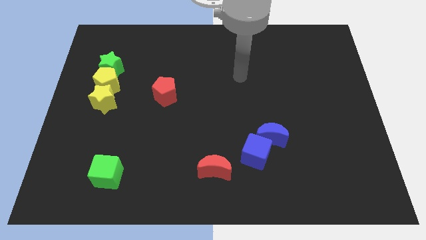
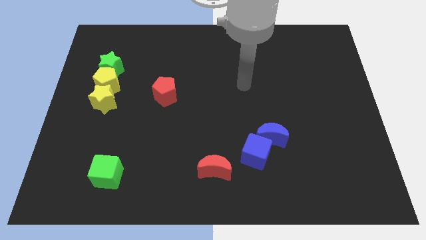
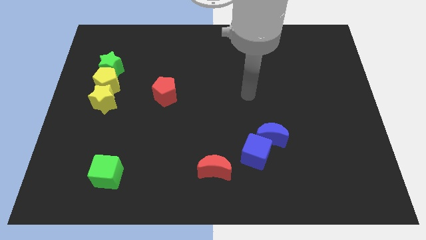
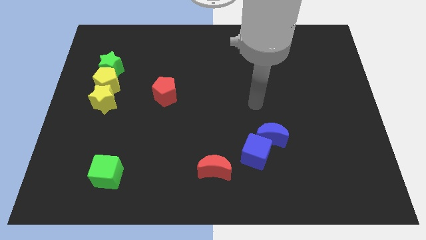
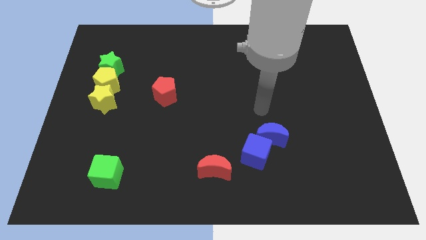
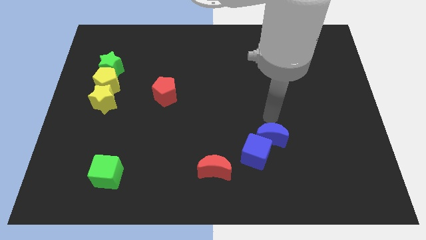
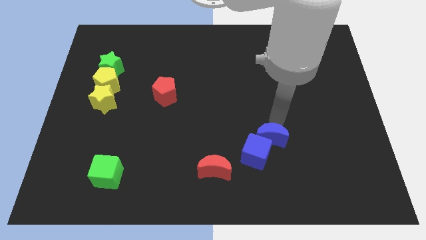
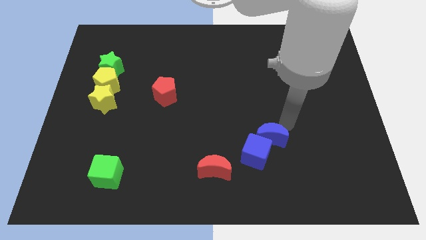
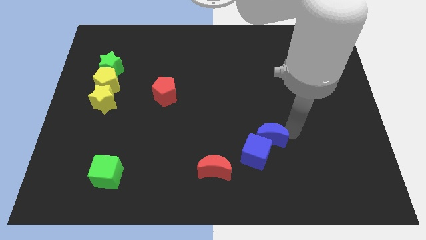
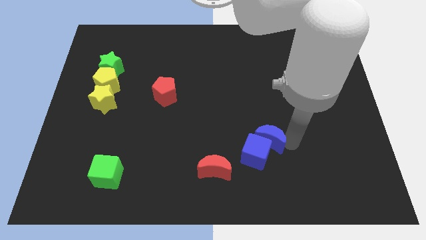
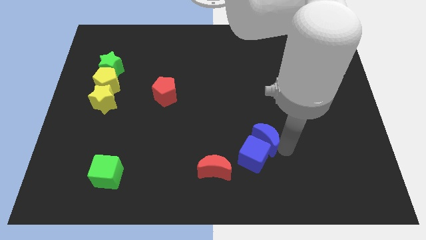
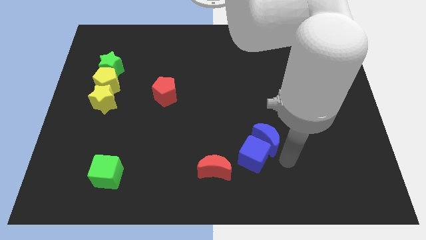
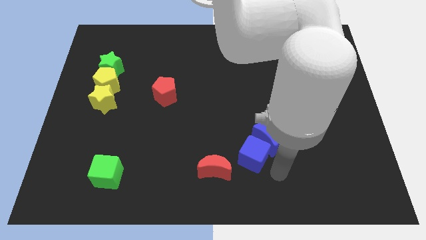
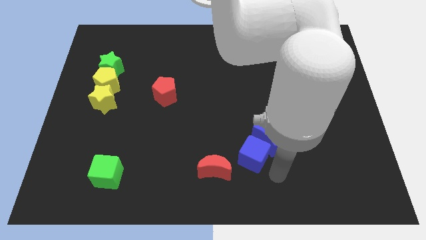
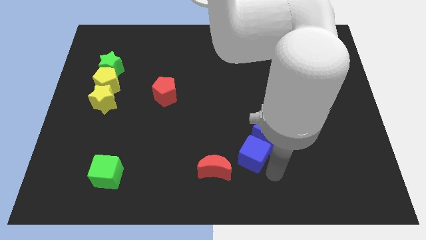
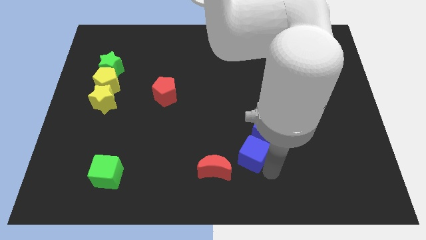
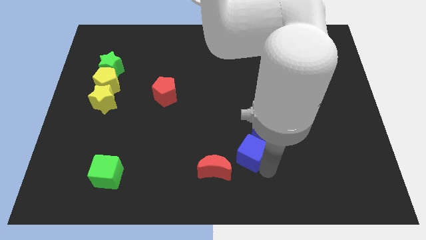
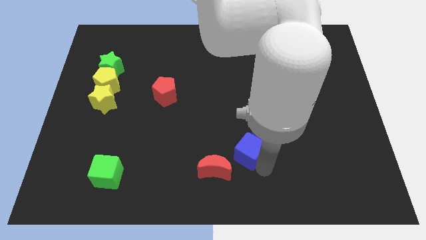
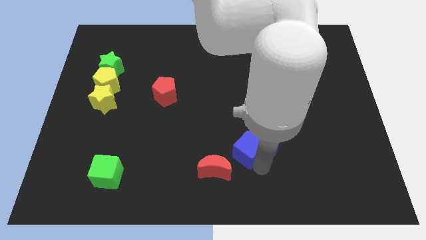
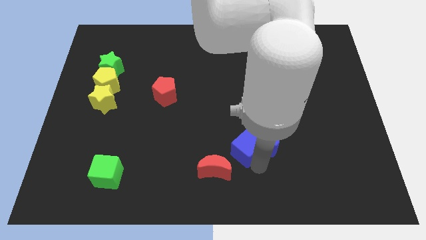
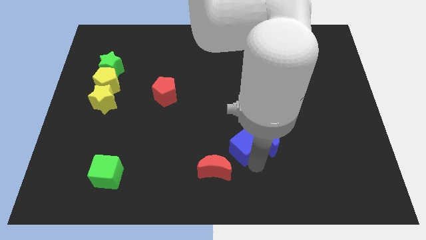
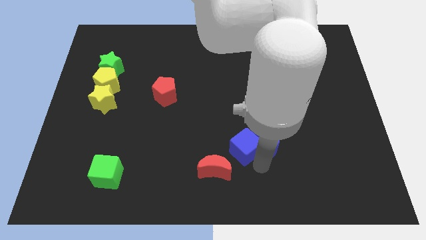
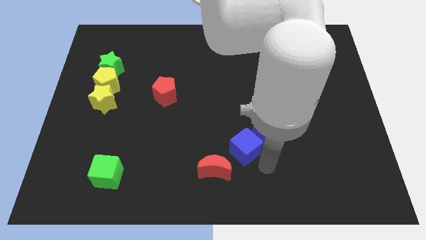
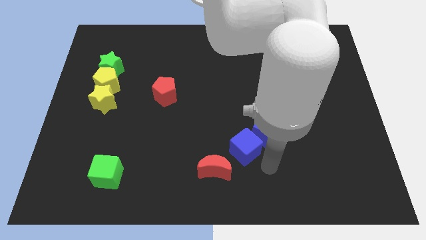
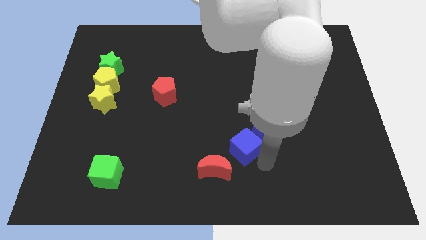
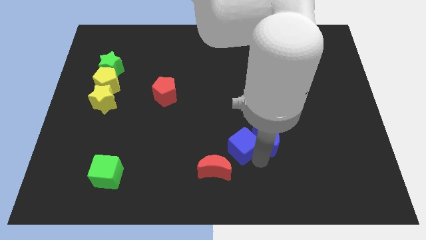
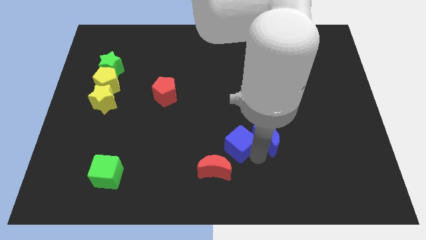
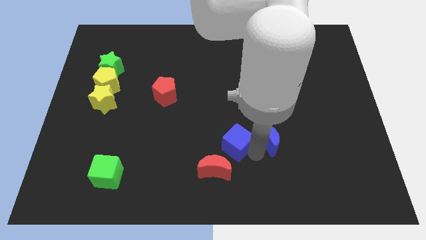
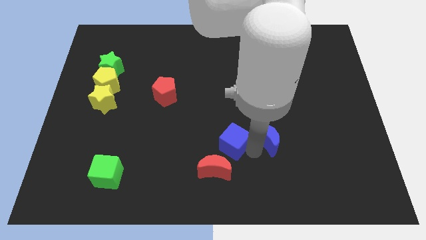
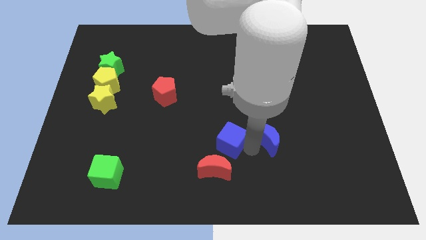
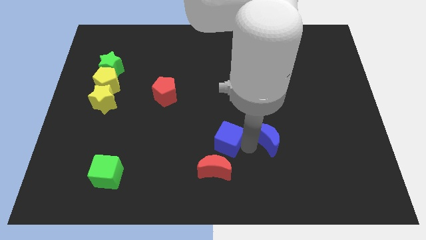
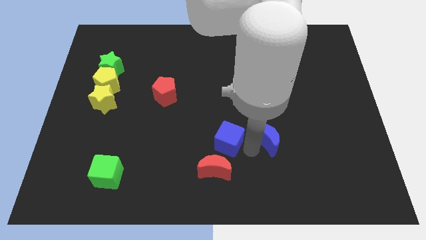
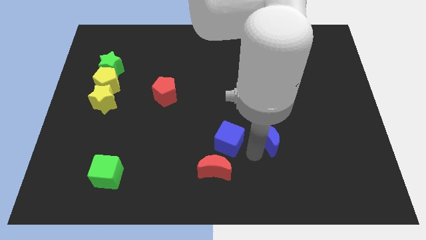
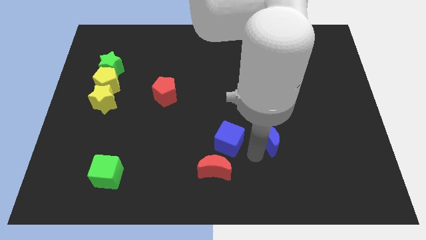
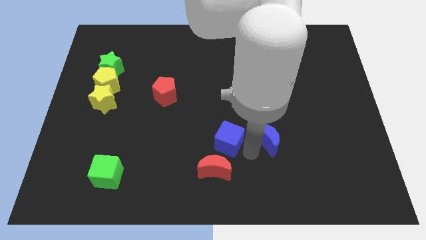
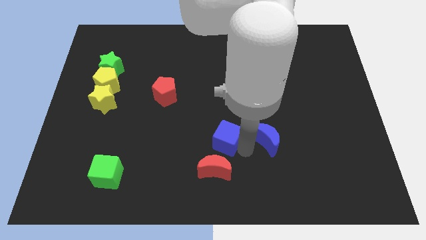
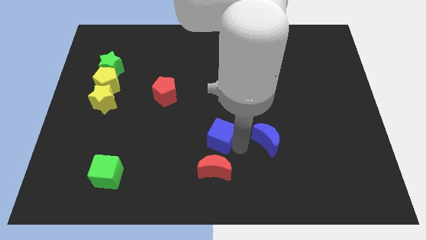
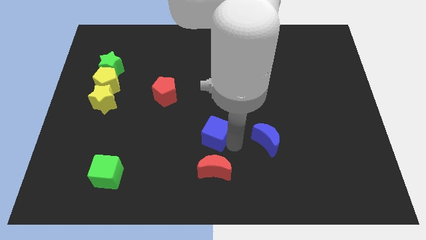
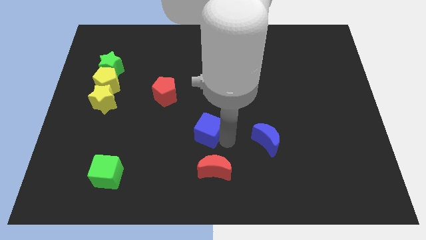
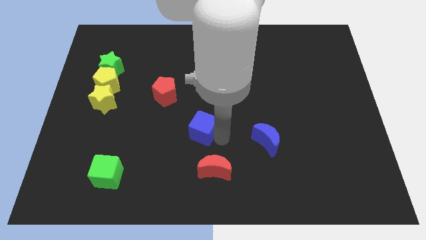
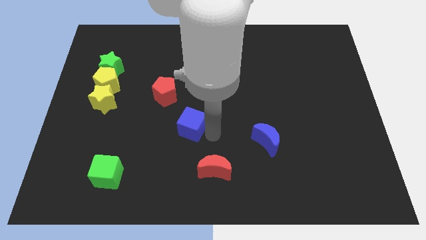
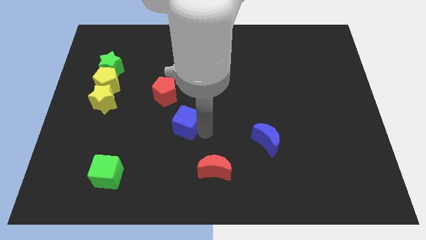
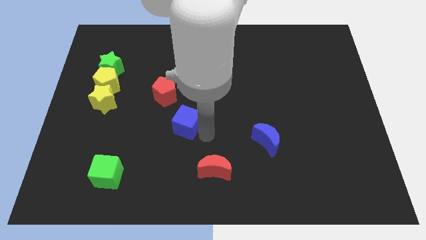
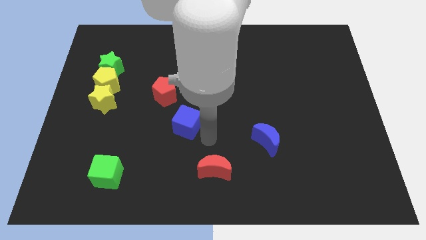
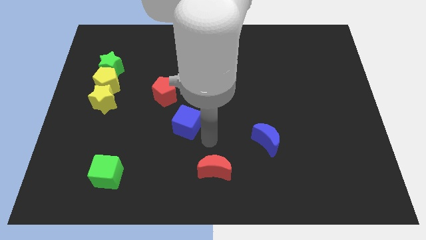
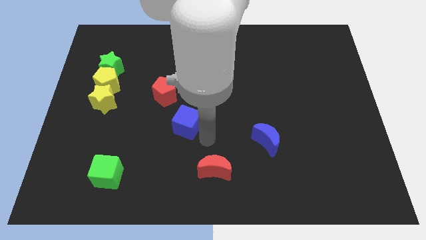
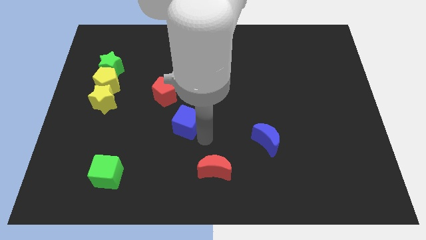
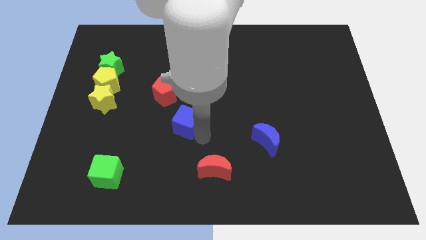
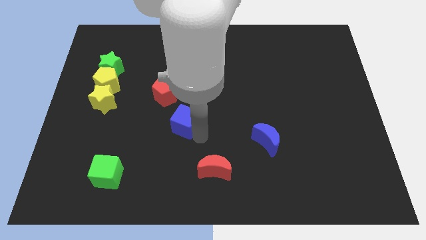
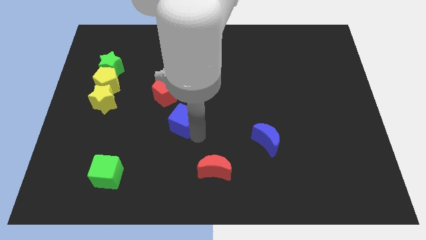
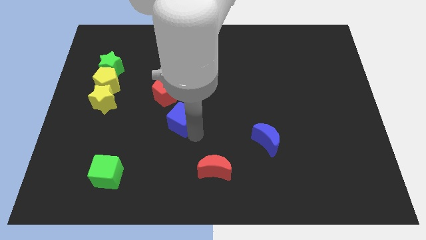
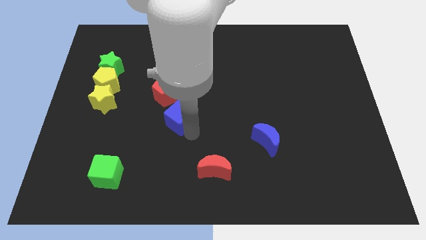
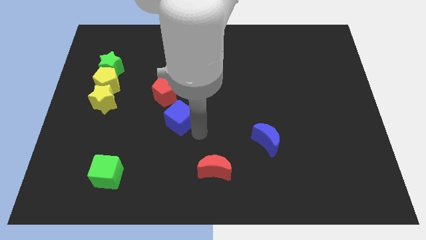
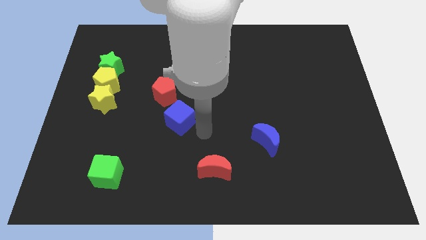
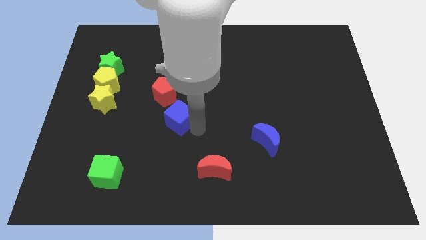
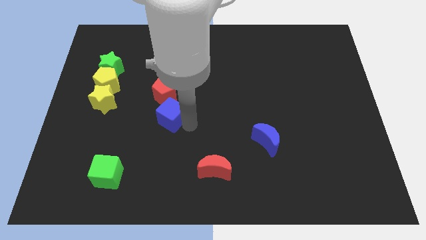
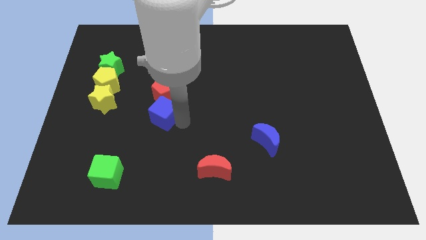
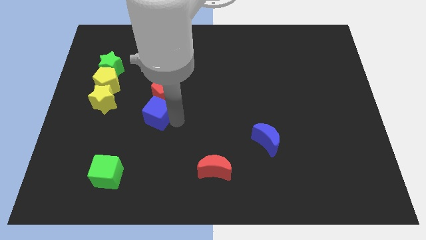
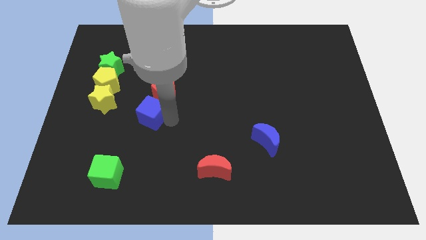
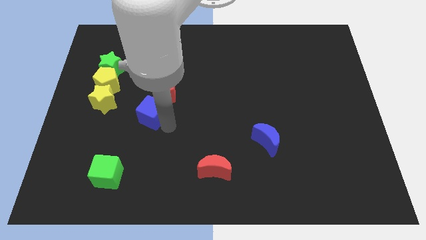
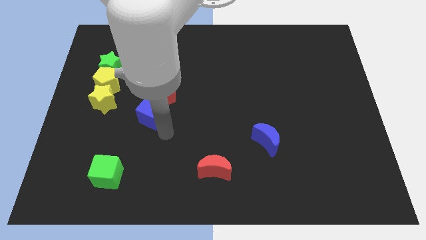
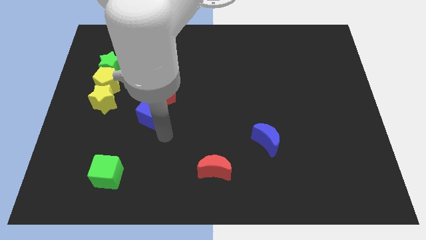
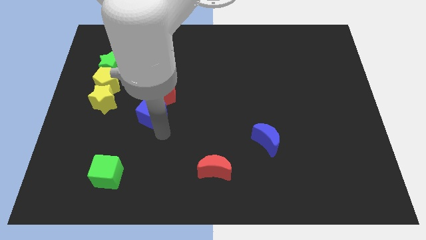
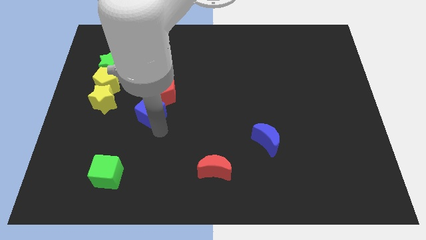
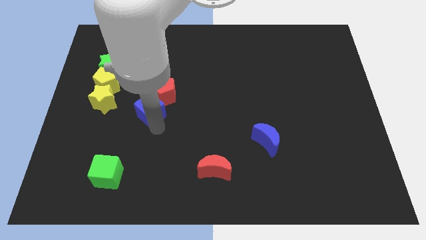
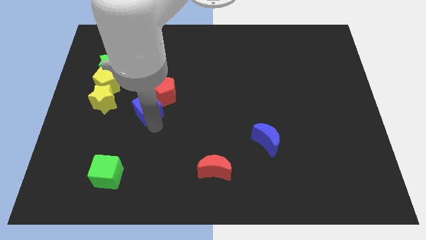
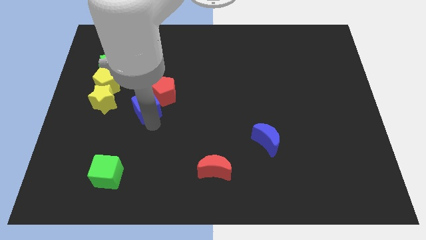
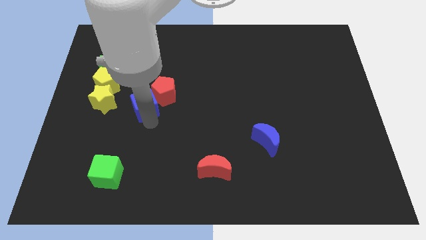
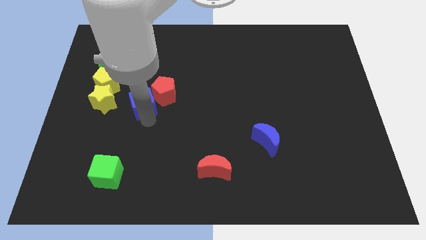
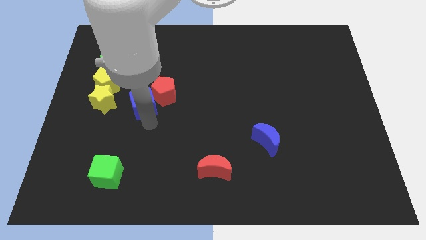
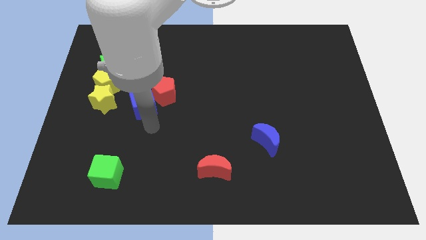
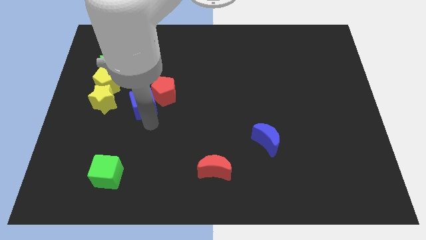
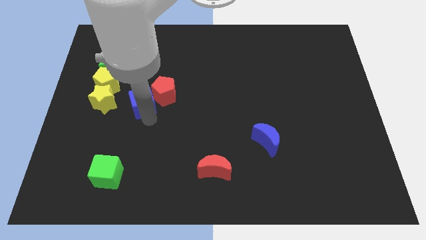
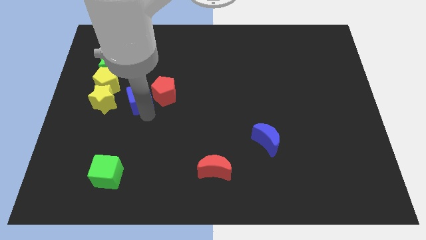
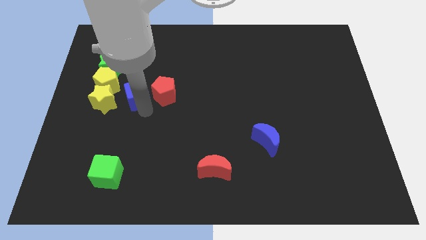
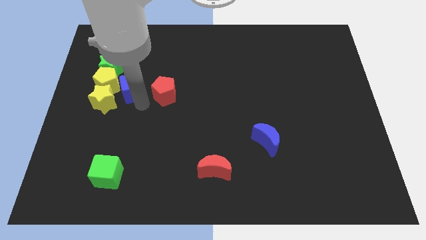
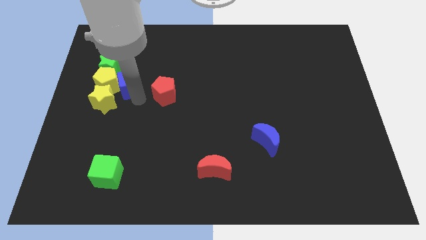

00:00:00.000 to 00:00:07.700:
push the blue cube diagonally up and to the right of the yellow pentagon
